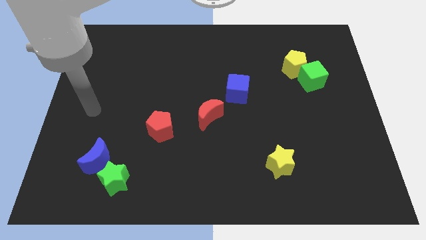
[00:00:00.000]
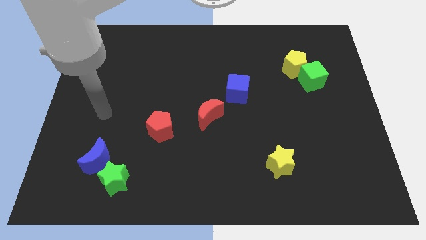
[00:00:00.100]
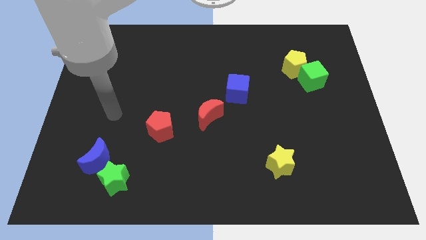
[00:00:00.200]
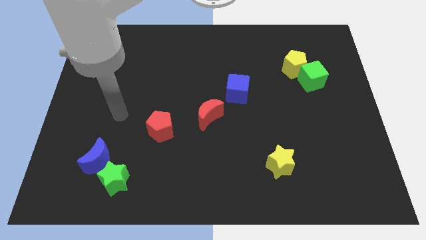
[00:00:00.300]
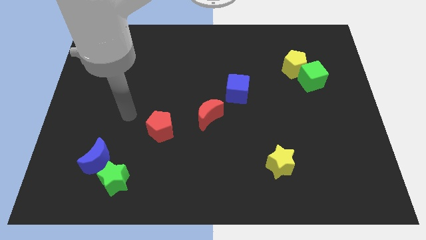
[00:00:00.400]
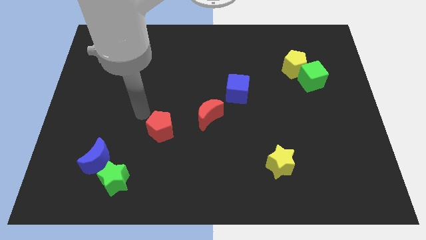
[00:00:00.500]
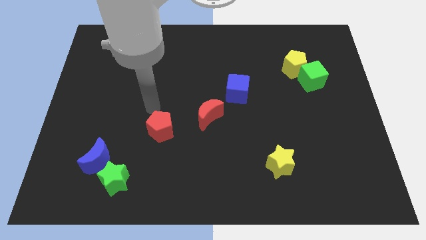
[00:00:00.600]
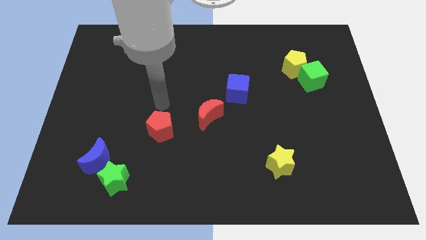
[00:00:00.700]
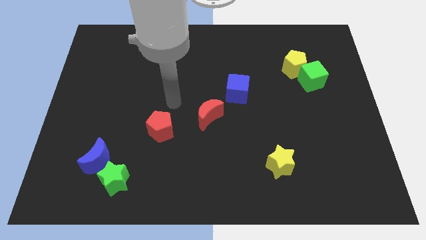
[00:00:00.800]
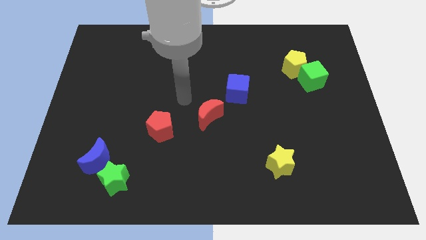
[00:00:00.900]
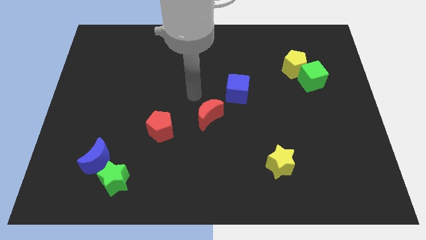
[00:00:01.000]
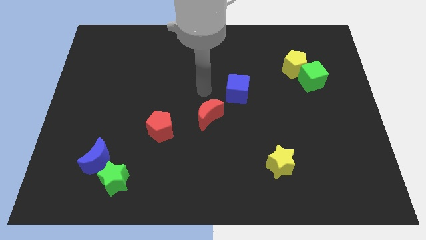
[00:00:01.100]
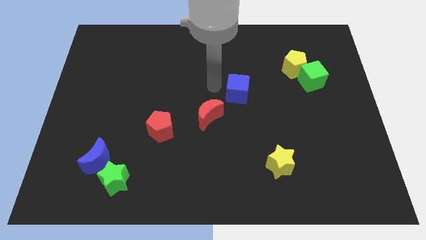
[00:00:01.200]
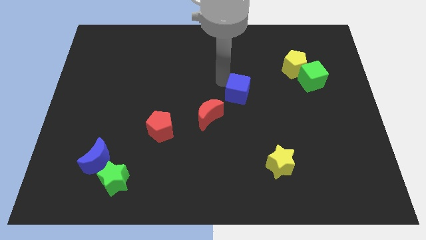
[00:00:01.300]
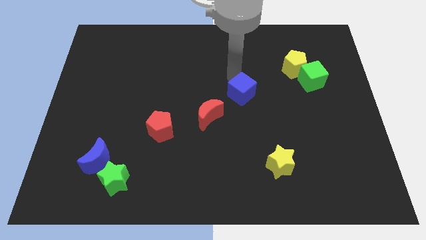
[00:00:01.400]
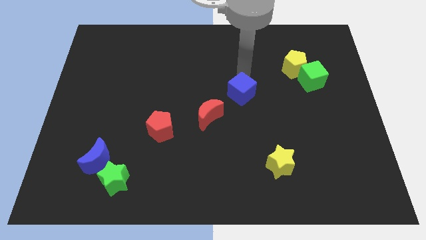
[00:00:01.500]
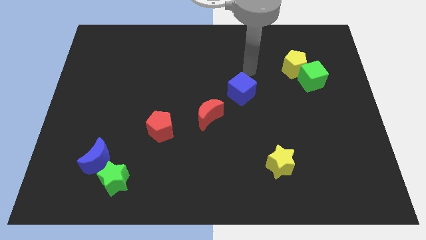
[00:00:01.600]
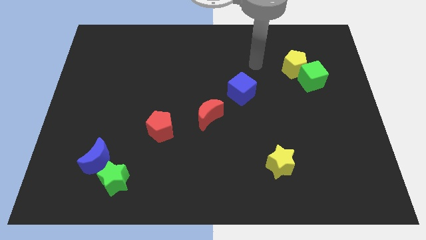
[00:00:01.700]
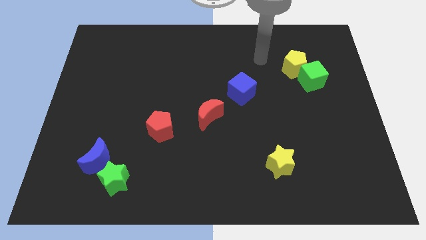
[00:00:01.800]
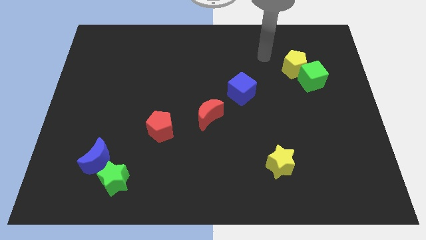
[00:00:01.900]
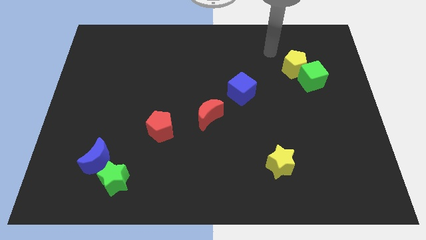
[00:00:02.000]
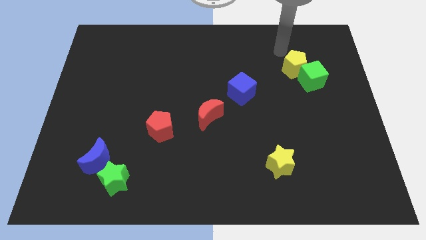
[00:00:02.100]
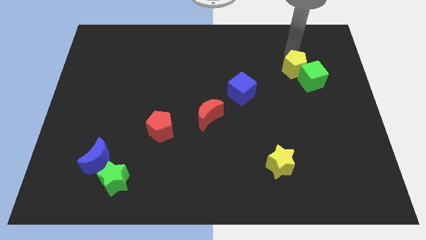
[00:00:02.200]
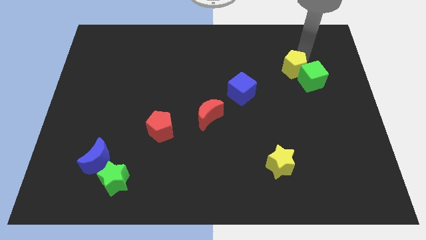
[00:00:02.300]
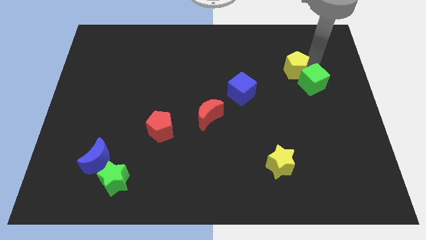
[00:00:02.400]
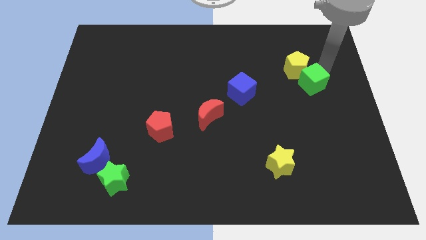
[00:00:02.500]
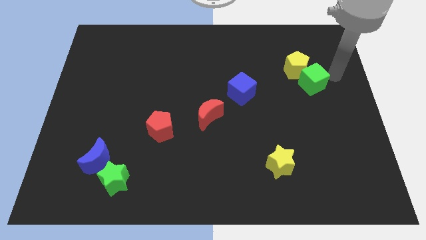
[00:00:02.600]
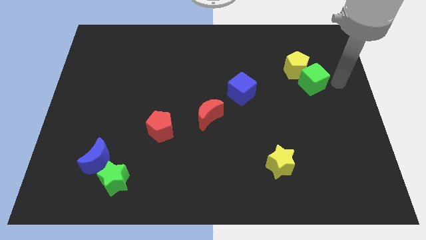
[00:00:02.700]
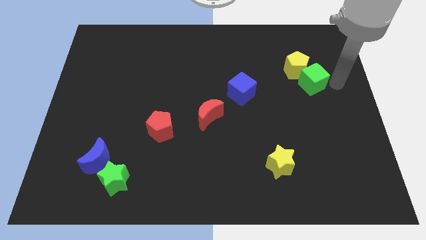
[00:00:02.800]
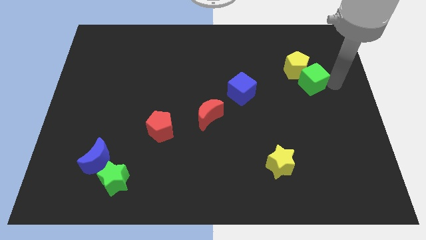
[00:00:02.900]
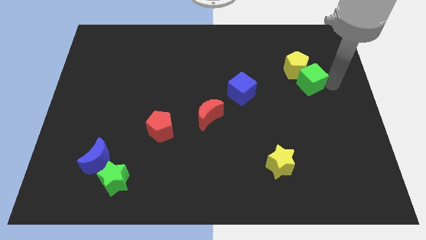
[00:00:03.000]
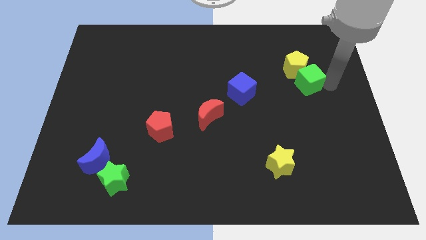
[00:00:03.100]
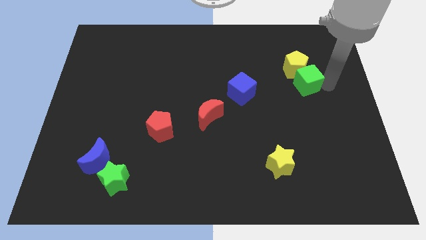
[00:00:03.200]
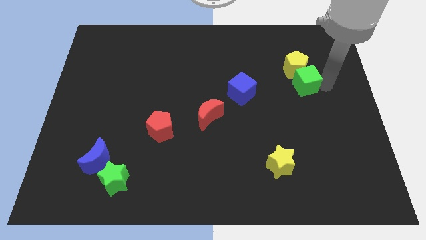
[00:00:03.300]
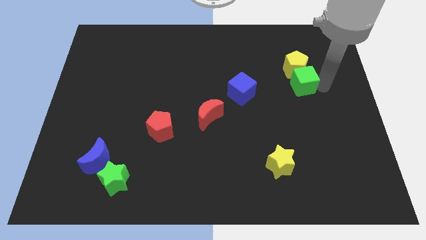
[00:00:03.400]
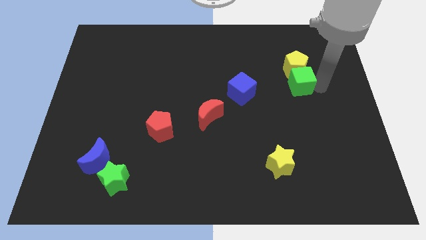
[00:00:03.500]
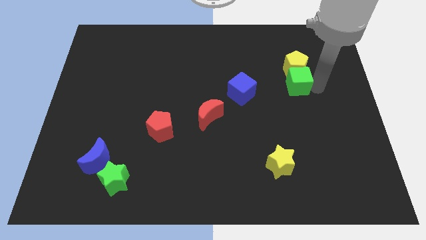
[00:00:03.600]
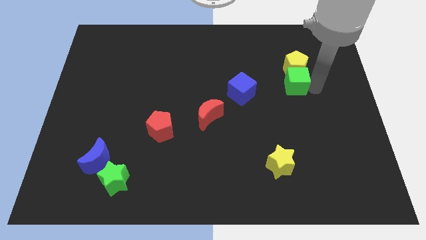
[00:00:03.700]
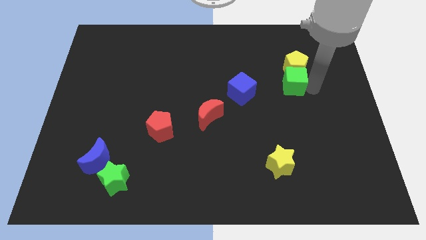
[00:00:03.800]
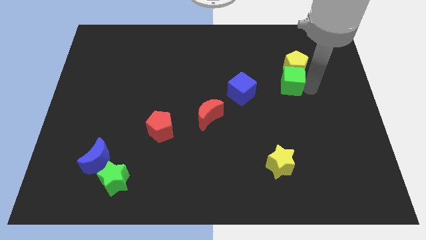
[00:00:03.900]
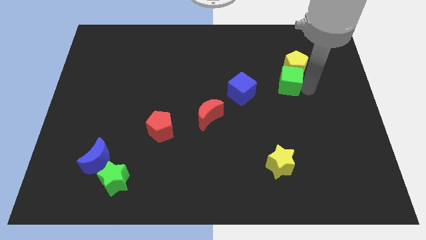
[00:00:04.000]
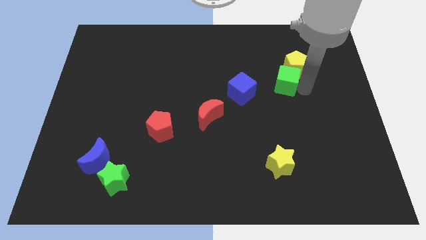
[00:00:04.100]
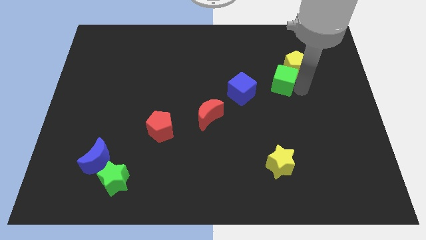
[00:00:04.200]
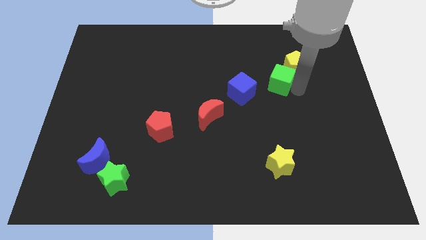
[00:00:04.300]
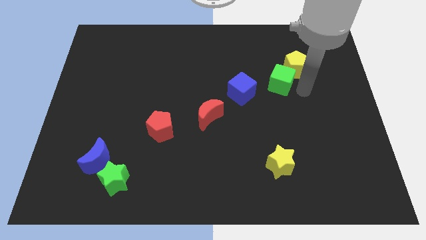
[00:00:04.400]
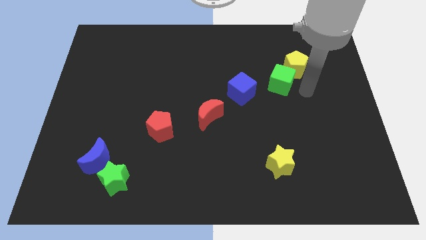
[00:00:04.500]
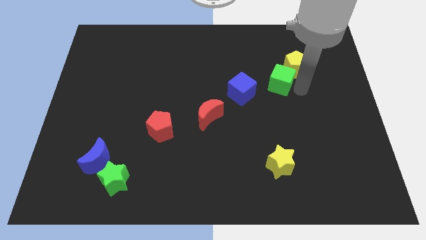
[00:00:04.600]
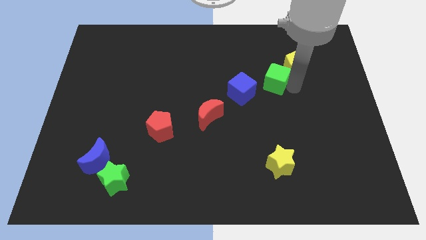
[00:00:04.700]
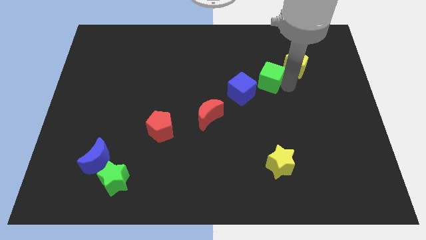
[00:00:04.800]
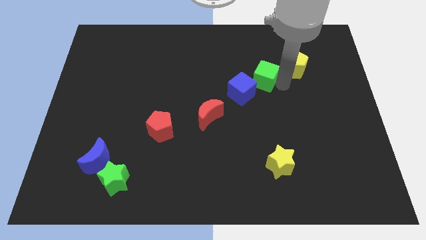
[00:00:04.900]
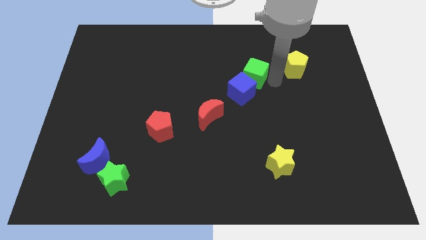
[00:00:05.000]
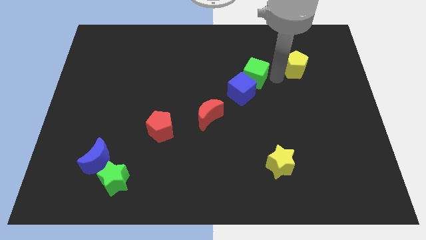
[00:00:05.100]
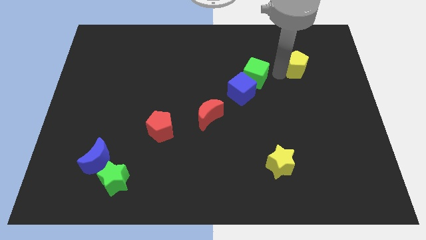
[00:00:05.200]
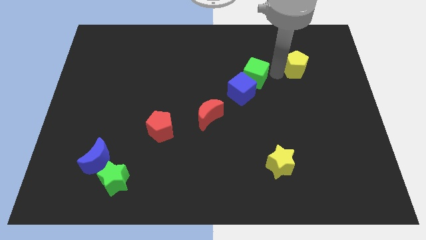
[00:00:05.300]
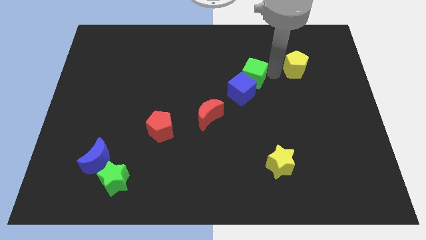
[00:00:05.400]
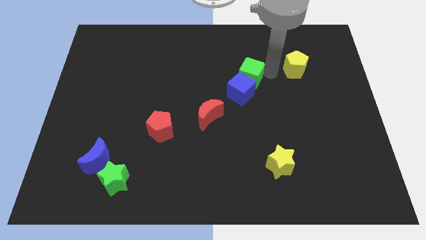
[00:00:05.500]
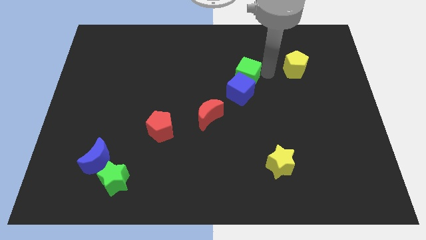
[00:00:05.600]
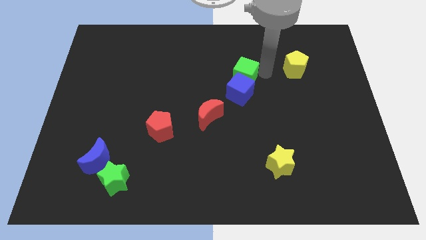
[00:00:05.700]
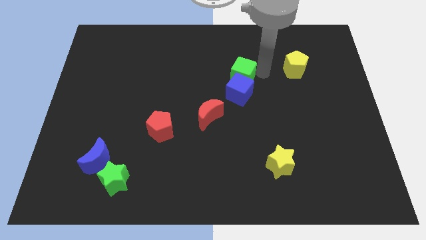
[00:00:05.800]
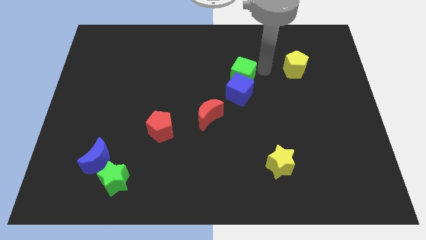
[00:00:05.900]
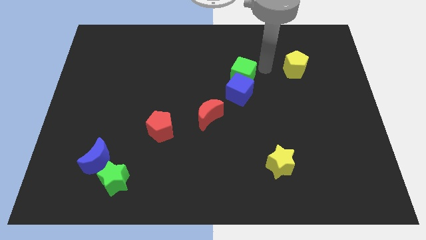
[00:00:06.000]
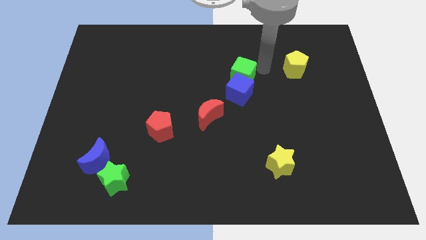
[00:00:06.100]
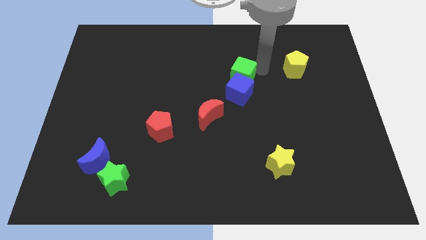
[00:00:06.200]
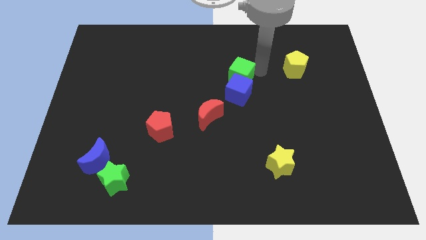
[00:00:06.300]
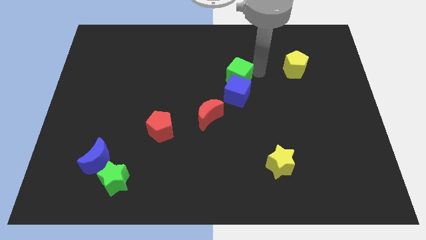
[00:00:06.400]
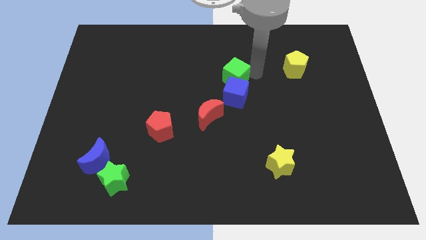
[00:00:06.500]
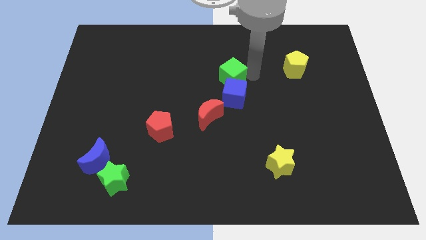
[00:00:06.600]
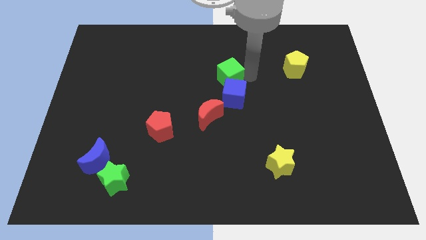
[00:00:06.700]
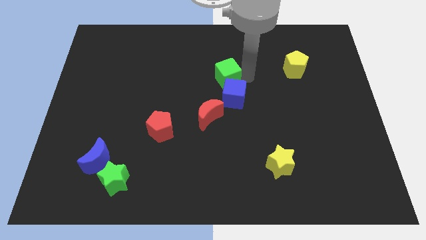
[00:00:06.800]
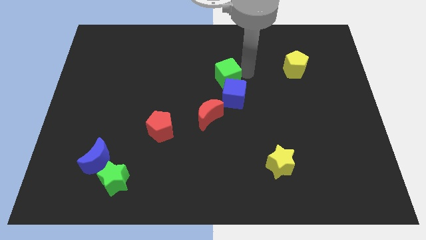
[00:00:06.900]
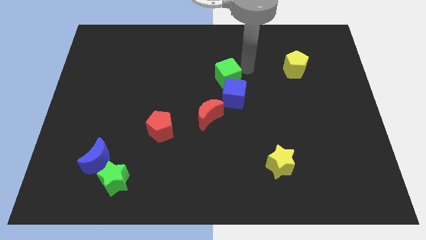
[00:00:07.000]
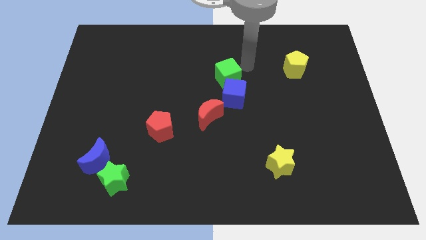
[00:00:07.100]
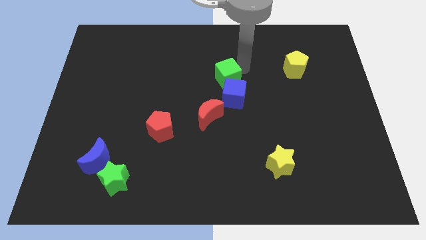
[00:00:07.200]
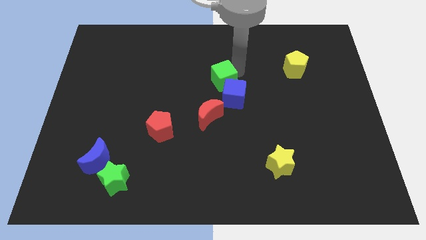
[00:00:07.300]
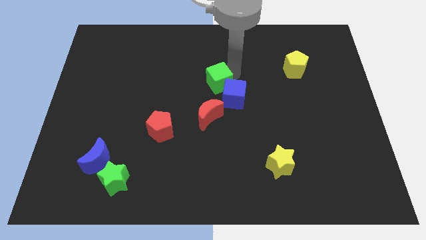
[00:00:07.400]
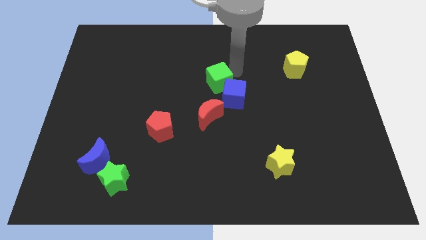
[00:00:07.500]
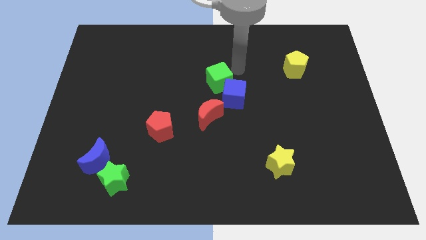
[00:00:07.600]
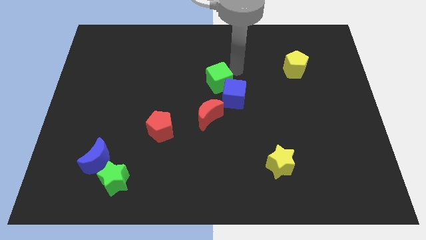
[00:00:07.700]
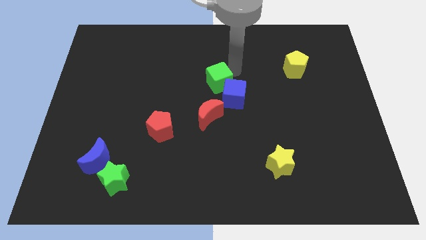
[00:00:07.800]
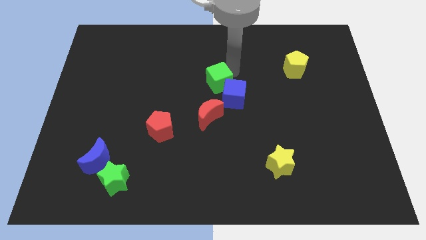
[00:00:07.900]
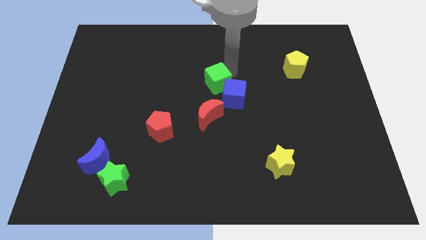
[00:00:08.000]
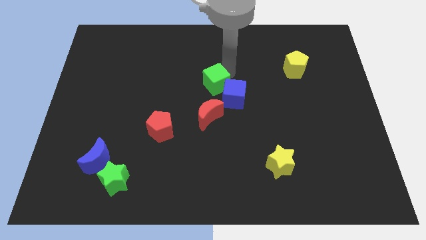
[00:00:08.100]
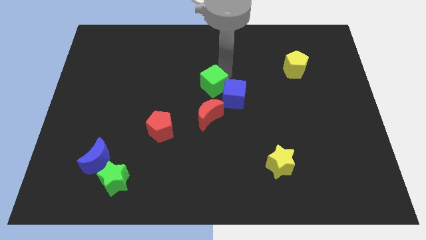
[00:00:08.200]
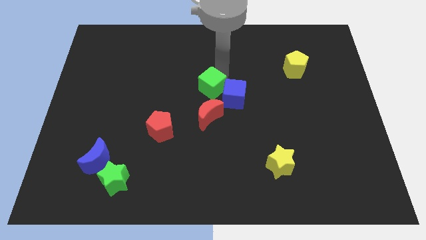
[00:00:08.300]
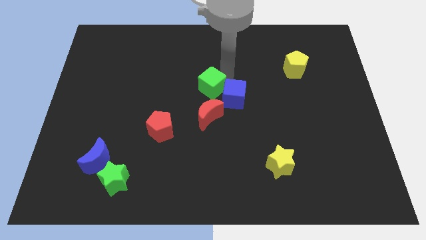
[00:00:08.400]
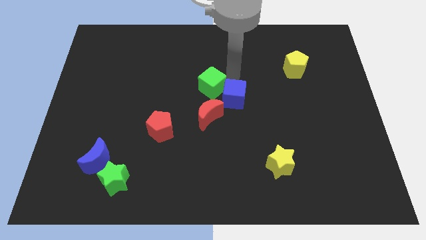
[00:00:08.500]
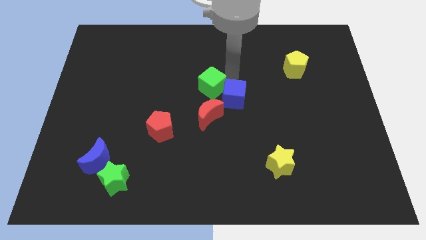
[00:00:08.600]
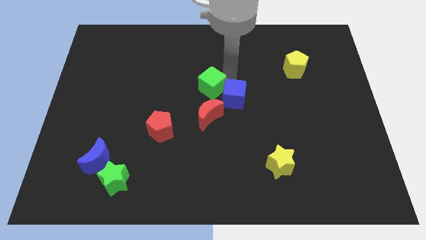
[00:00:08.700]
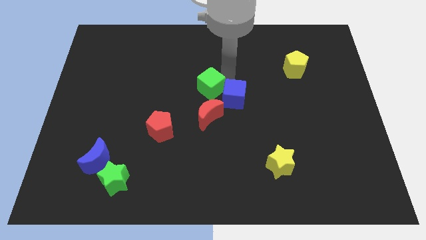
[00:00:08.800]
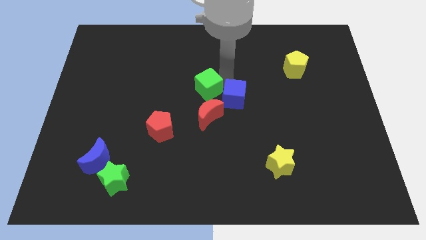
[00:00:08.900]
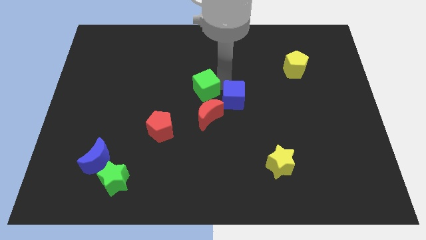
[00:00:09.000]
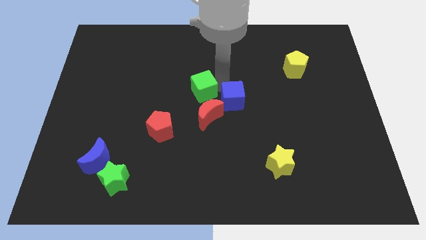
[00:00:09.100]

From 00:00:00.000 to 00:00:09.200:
move the green cube to the top left side of the red moon
